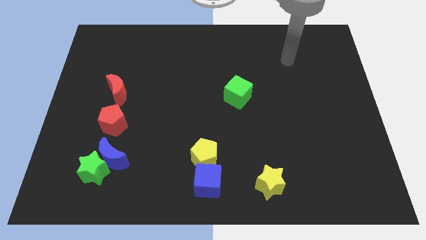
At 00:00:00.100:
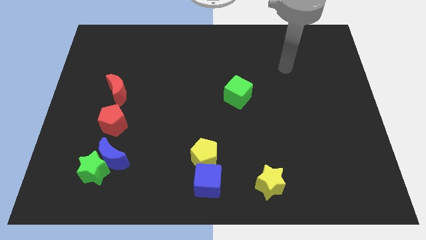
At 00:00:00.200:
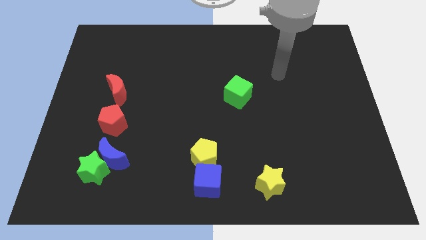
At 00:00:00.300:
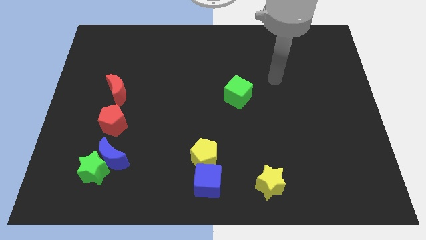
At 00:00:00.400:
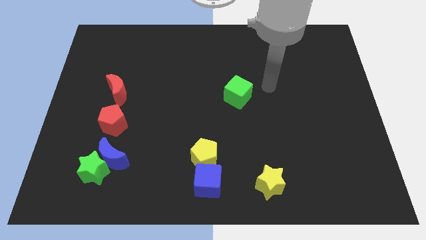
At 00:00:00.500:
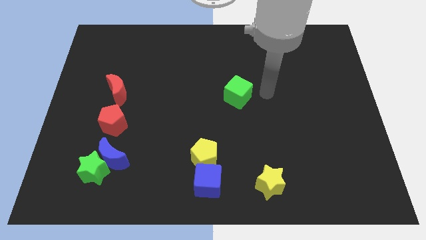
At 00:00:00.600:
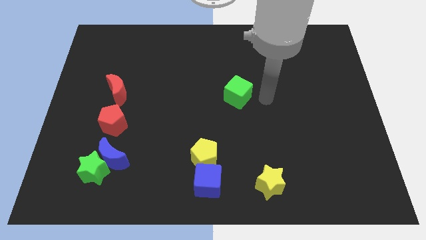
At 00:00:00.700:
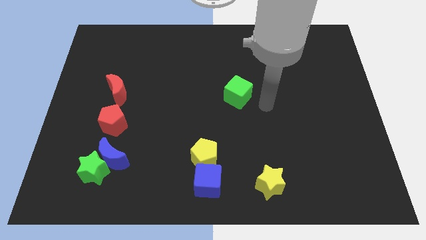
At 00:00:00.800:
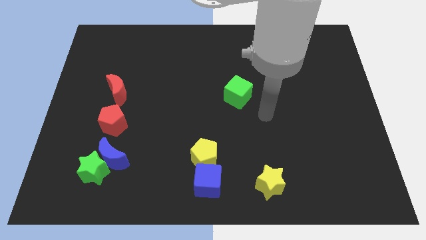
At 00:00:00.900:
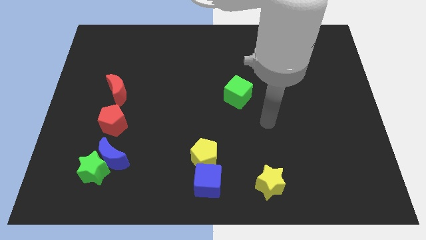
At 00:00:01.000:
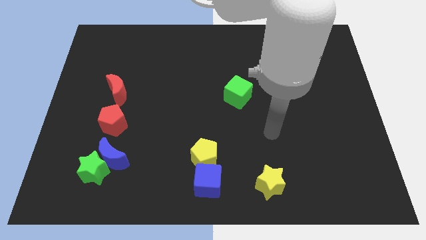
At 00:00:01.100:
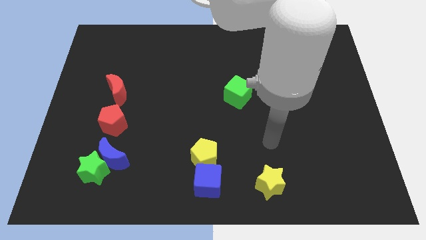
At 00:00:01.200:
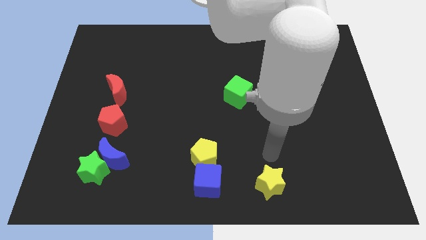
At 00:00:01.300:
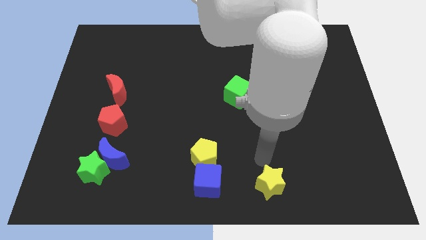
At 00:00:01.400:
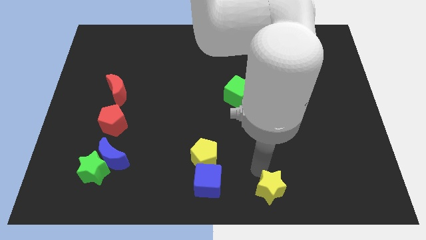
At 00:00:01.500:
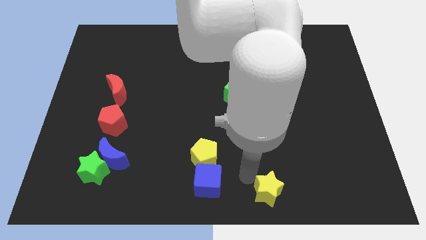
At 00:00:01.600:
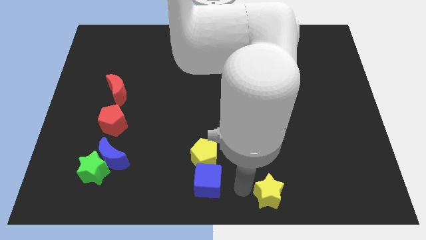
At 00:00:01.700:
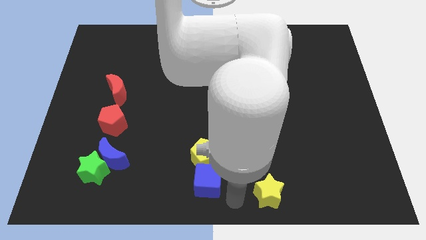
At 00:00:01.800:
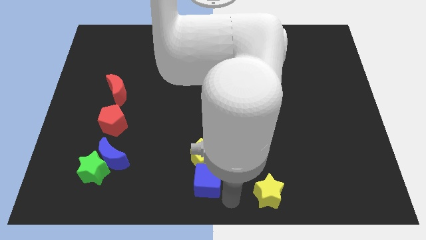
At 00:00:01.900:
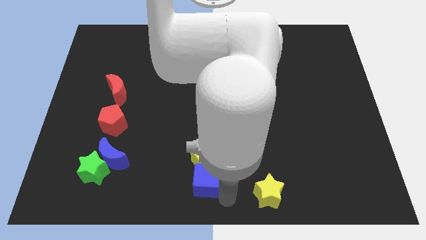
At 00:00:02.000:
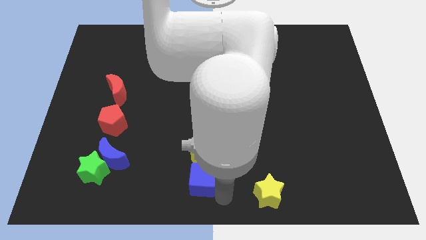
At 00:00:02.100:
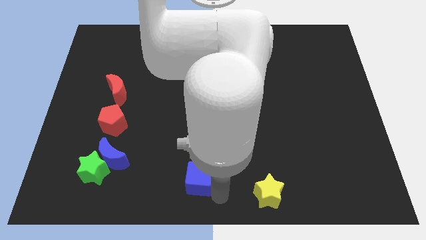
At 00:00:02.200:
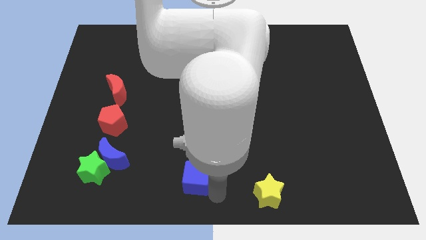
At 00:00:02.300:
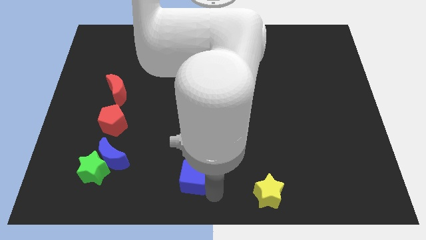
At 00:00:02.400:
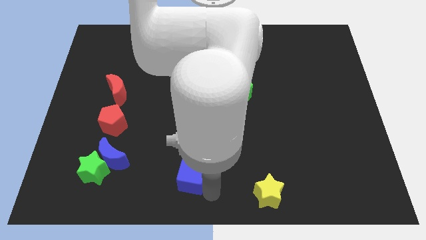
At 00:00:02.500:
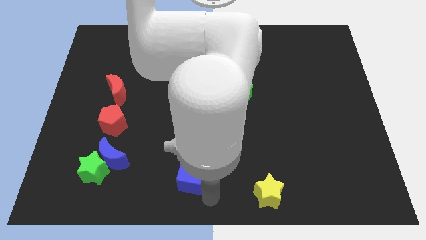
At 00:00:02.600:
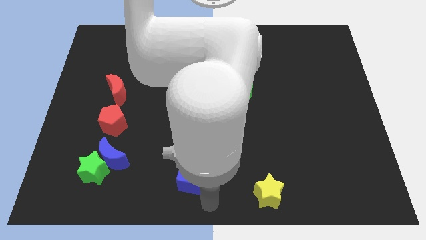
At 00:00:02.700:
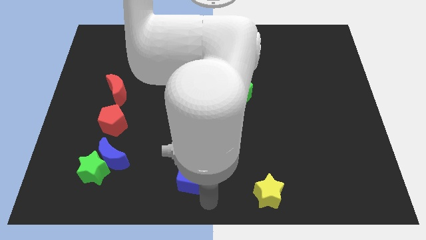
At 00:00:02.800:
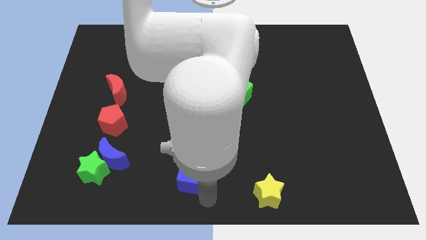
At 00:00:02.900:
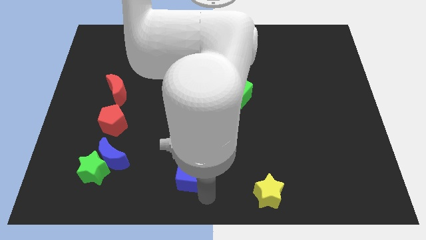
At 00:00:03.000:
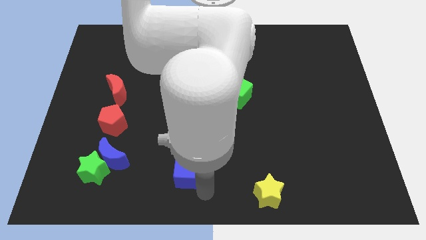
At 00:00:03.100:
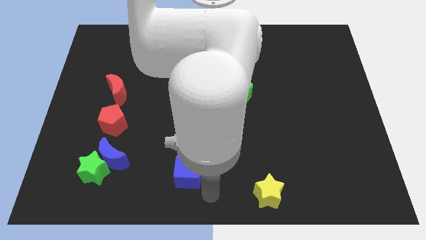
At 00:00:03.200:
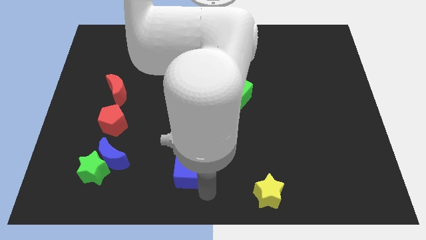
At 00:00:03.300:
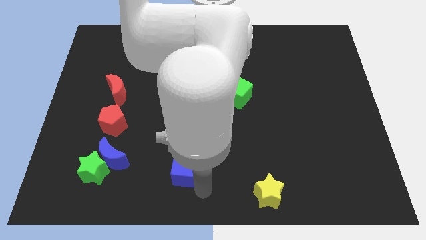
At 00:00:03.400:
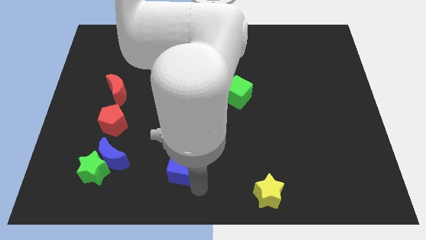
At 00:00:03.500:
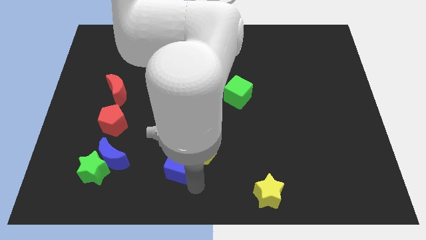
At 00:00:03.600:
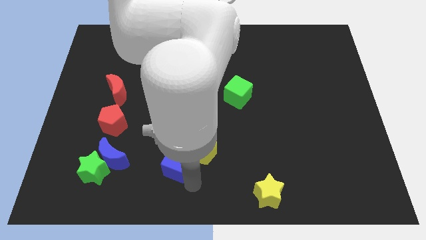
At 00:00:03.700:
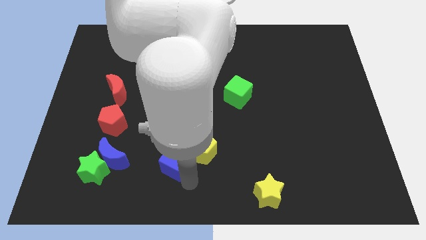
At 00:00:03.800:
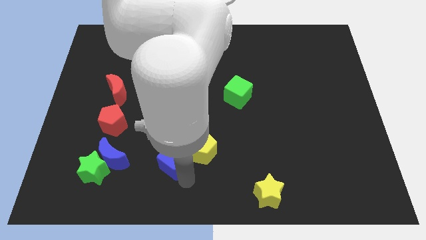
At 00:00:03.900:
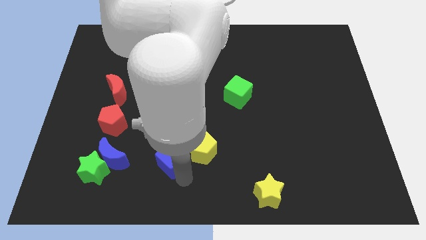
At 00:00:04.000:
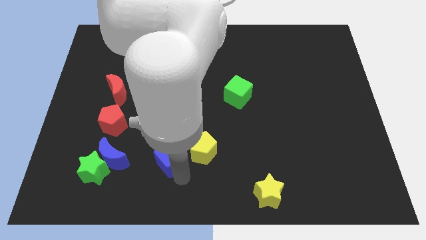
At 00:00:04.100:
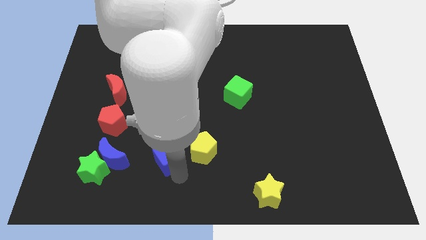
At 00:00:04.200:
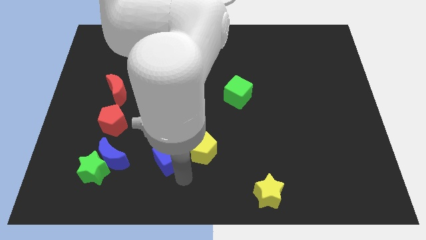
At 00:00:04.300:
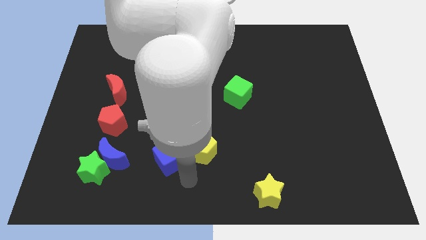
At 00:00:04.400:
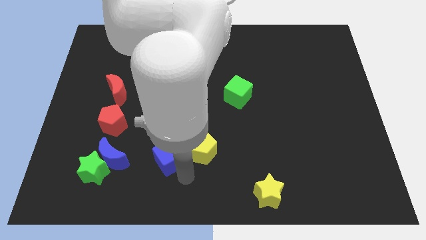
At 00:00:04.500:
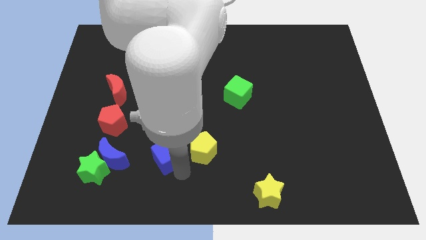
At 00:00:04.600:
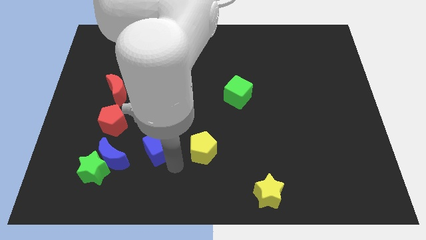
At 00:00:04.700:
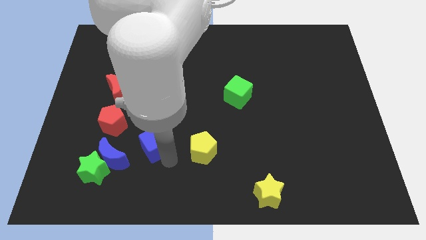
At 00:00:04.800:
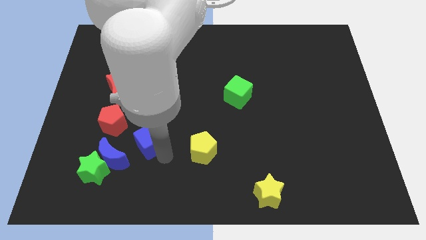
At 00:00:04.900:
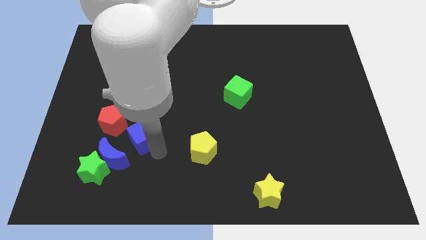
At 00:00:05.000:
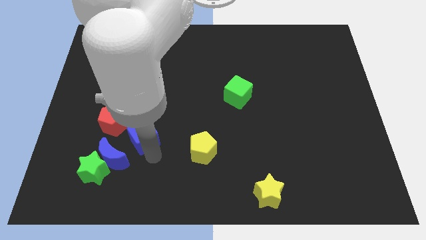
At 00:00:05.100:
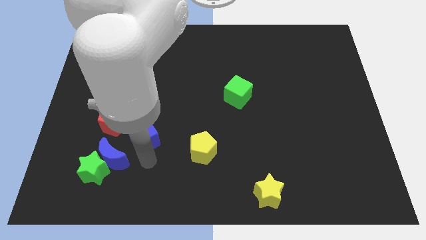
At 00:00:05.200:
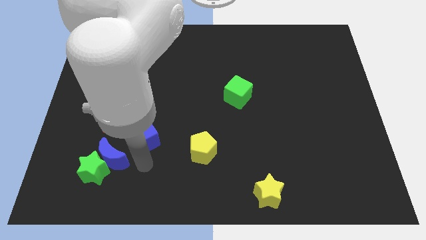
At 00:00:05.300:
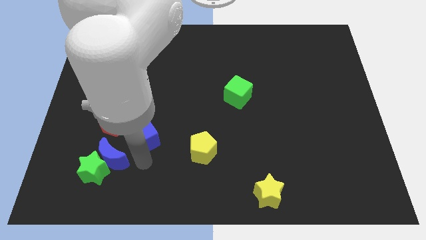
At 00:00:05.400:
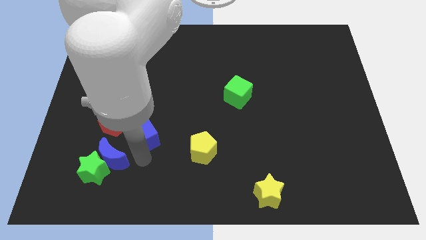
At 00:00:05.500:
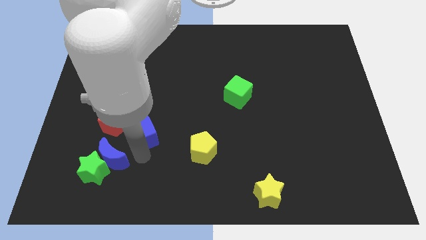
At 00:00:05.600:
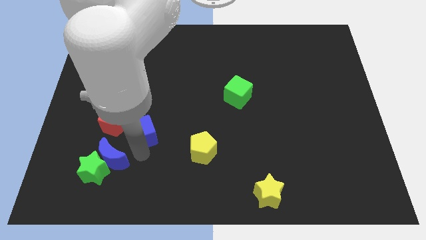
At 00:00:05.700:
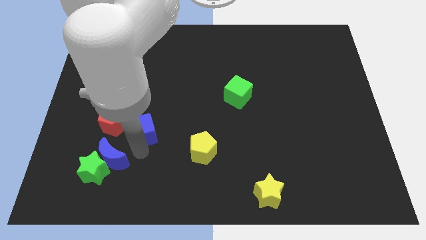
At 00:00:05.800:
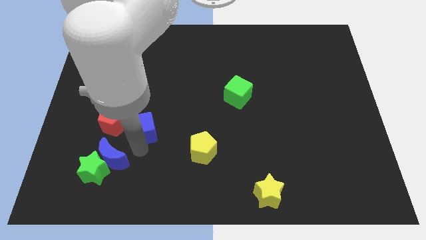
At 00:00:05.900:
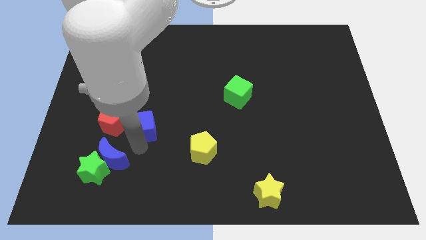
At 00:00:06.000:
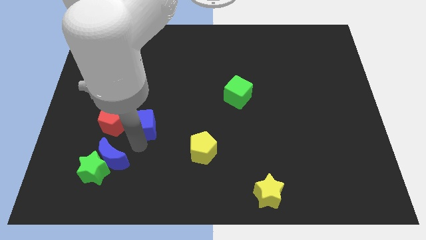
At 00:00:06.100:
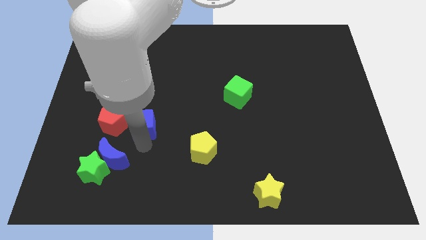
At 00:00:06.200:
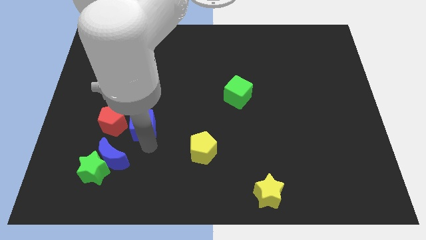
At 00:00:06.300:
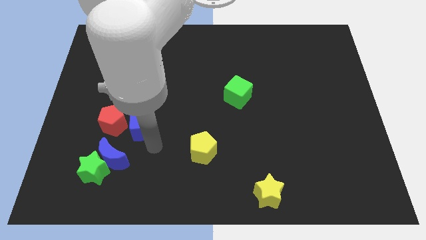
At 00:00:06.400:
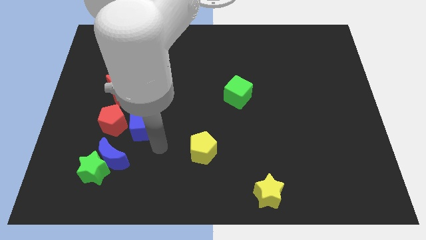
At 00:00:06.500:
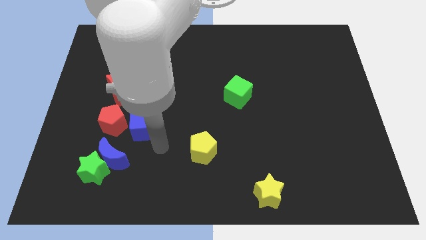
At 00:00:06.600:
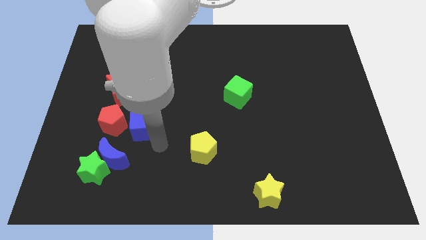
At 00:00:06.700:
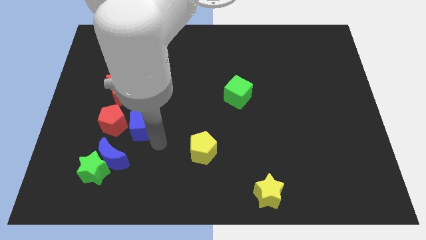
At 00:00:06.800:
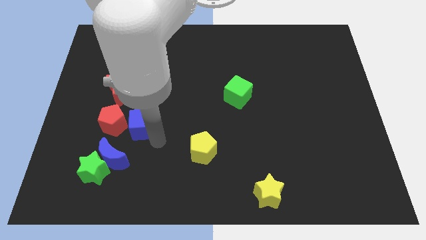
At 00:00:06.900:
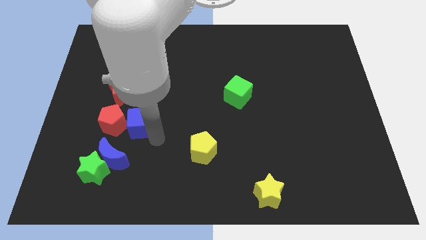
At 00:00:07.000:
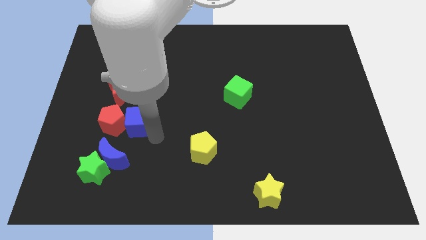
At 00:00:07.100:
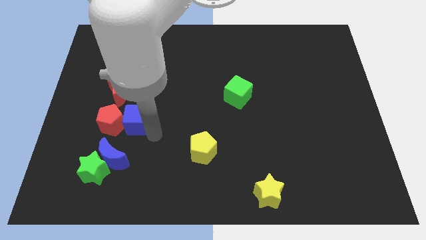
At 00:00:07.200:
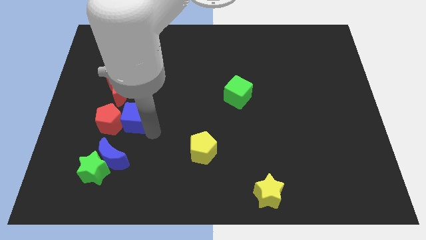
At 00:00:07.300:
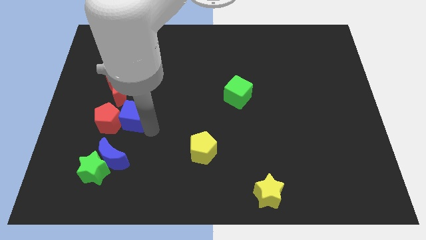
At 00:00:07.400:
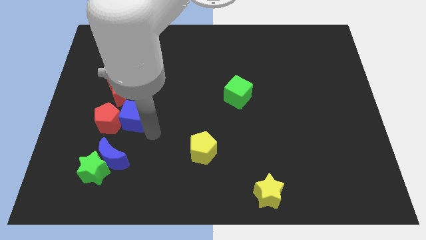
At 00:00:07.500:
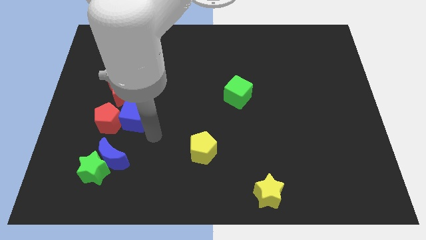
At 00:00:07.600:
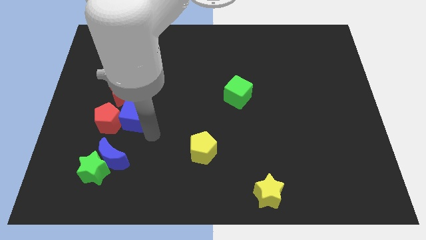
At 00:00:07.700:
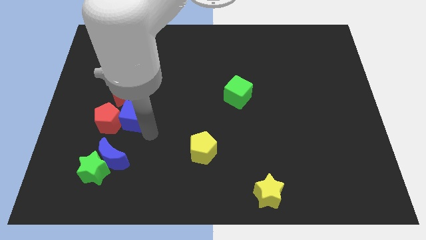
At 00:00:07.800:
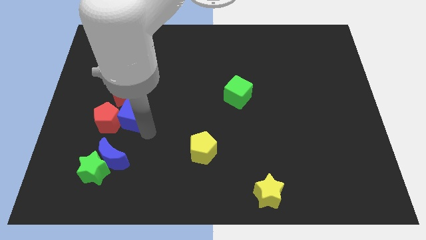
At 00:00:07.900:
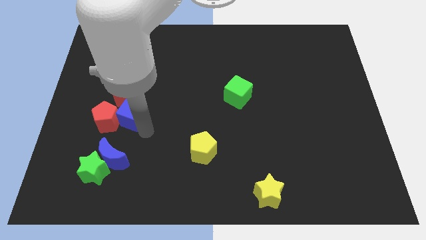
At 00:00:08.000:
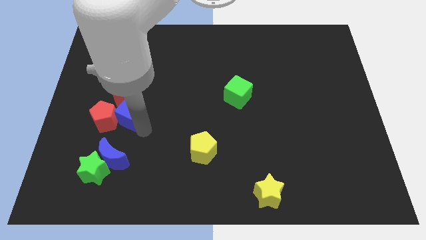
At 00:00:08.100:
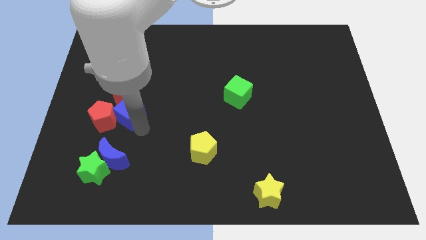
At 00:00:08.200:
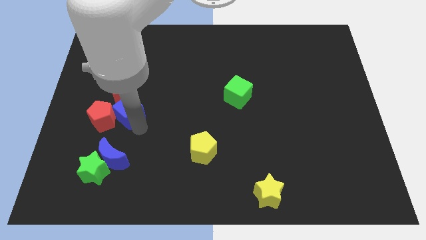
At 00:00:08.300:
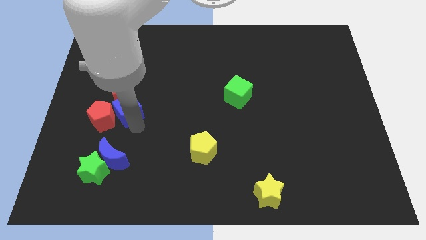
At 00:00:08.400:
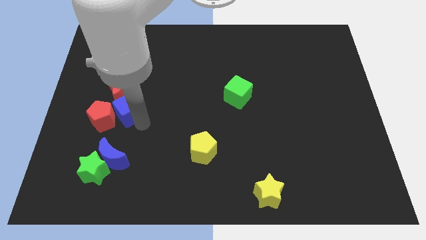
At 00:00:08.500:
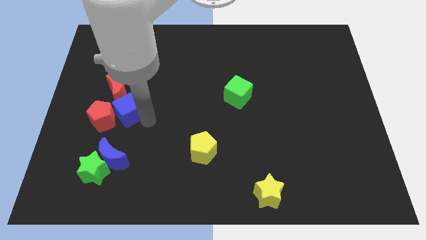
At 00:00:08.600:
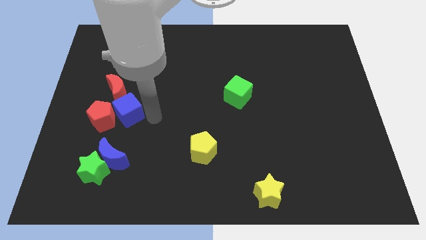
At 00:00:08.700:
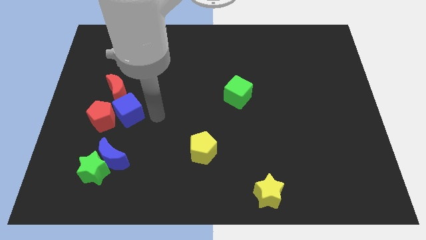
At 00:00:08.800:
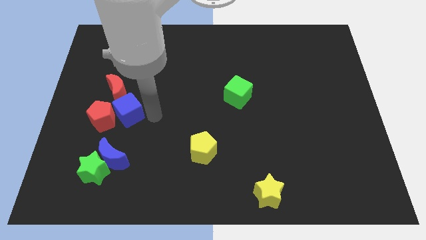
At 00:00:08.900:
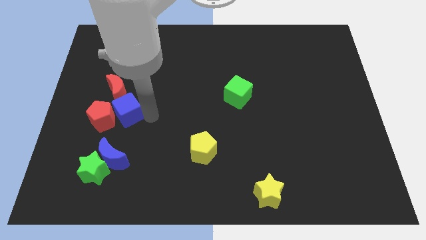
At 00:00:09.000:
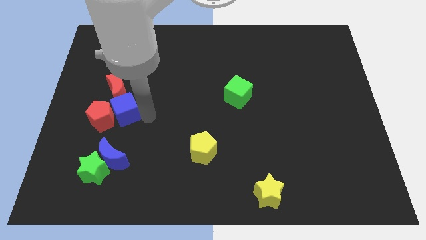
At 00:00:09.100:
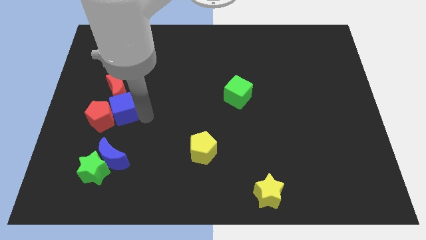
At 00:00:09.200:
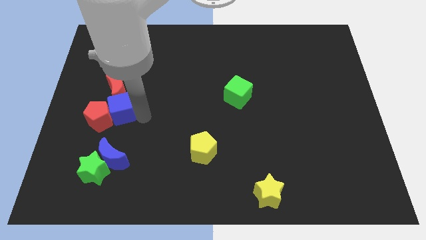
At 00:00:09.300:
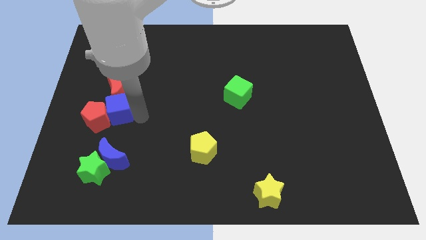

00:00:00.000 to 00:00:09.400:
push the blue cube to the top of the green star
